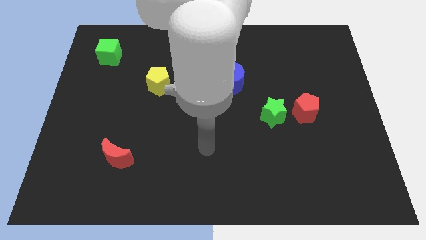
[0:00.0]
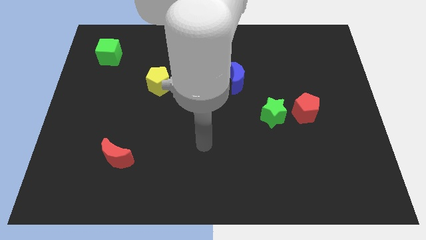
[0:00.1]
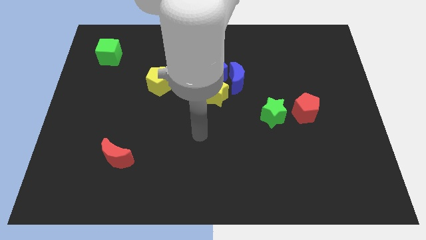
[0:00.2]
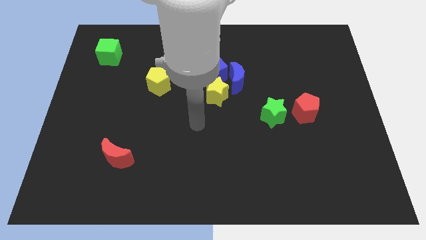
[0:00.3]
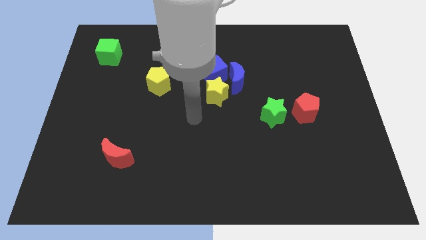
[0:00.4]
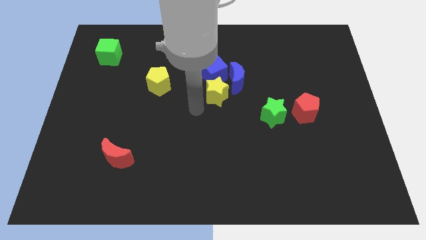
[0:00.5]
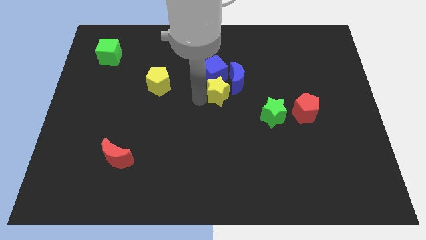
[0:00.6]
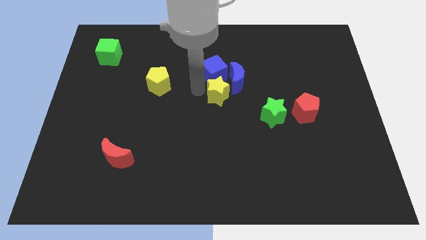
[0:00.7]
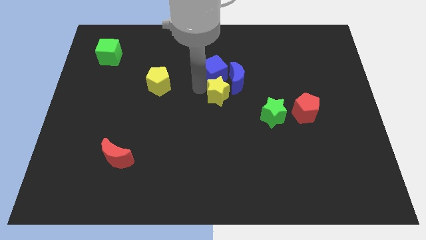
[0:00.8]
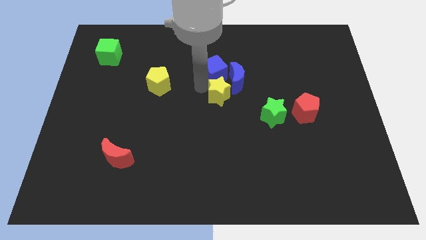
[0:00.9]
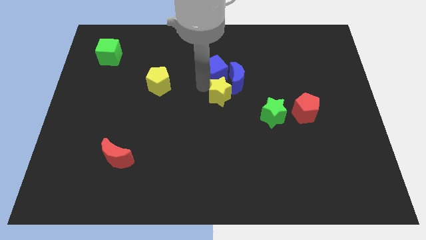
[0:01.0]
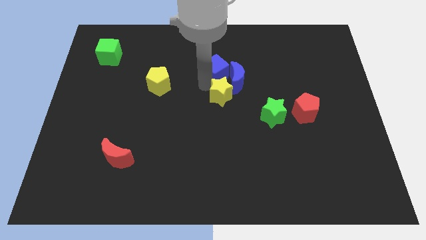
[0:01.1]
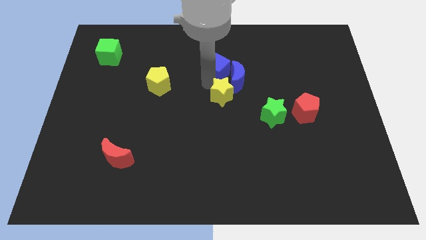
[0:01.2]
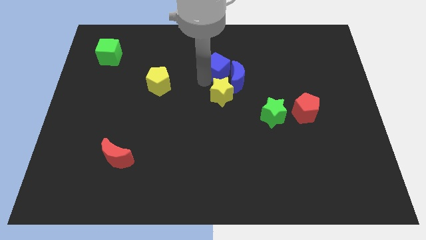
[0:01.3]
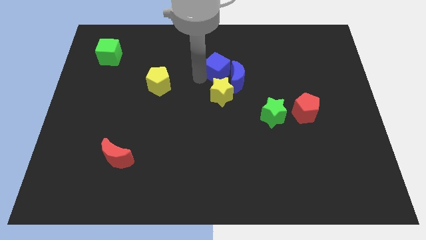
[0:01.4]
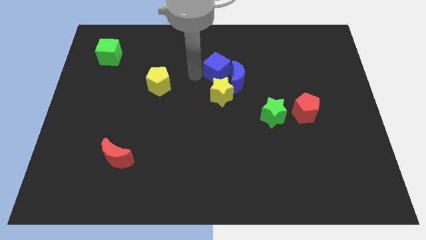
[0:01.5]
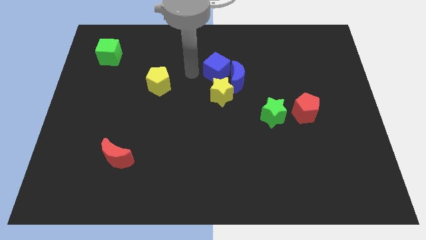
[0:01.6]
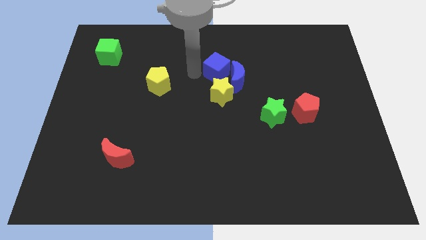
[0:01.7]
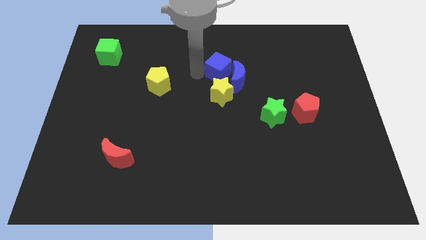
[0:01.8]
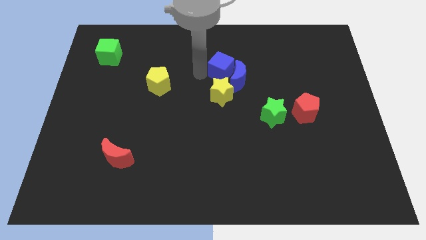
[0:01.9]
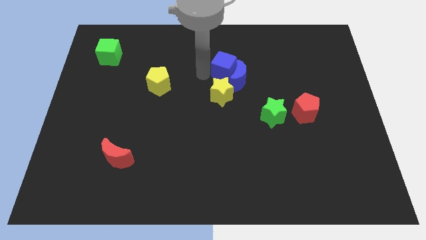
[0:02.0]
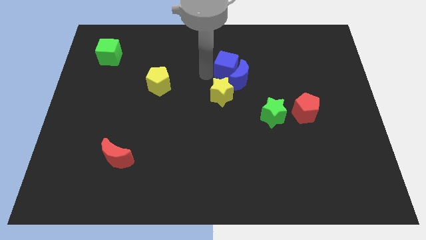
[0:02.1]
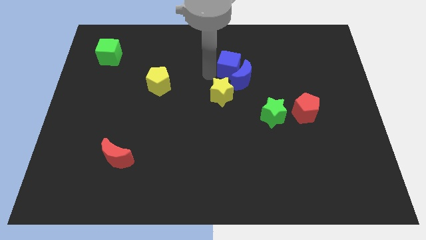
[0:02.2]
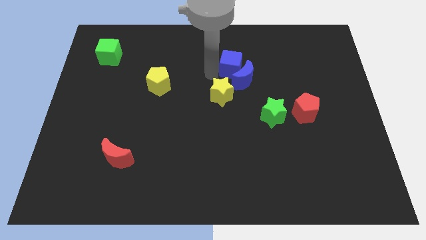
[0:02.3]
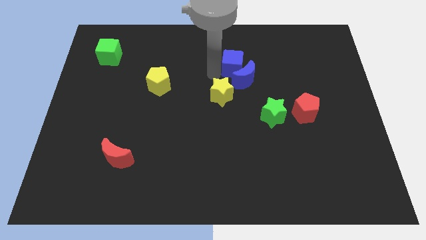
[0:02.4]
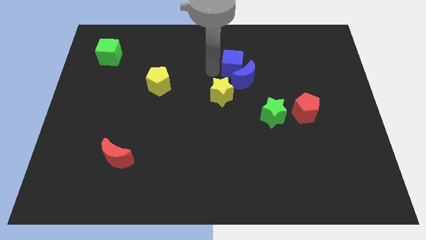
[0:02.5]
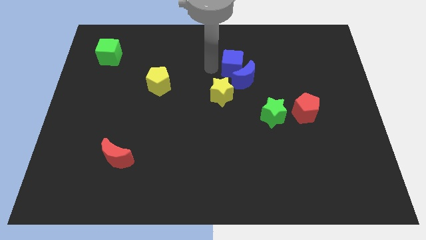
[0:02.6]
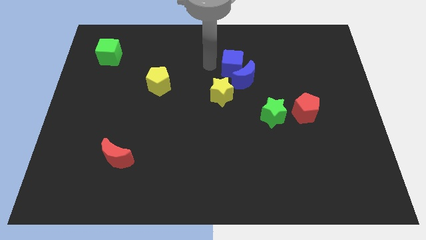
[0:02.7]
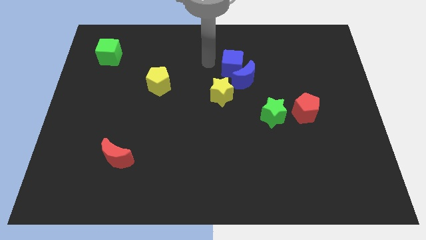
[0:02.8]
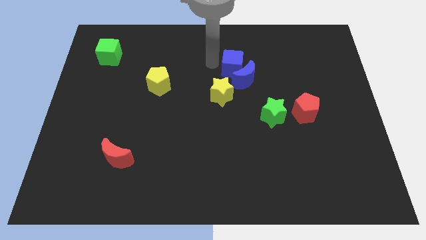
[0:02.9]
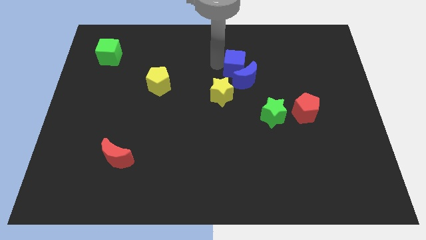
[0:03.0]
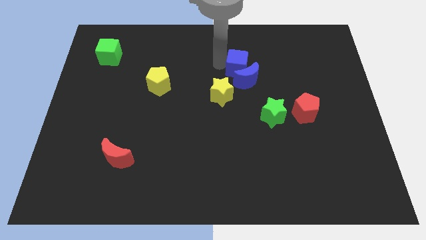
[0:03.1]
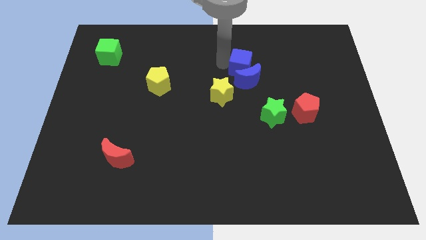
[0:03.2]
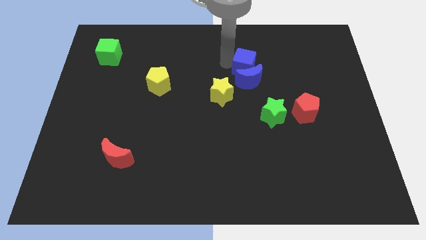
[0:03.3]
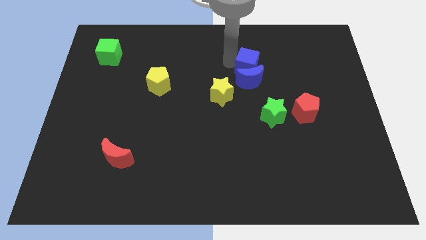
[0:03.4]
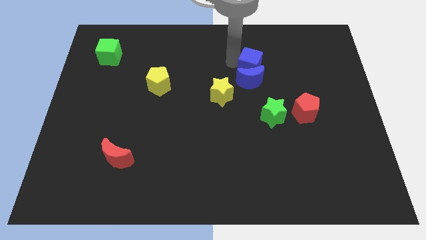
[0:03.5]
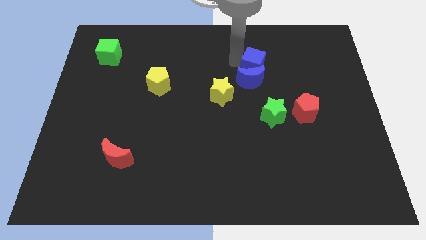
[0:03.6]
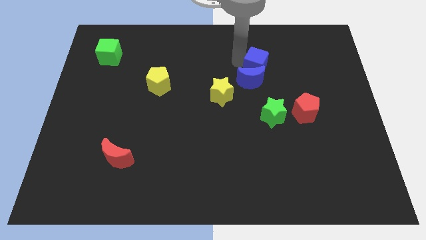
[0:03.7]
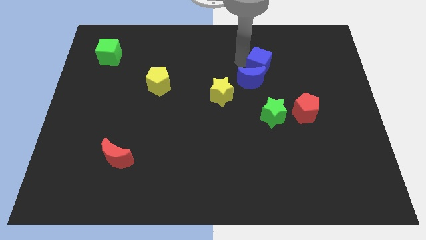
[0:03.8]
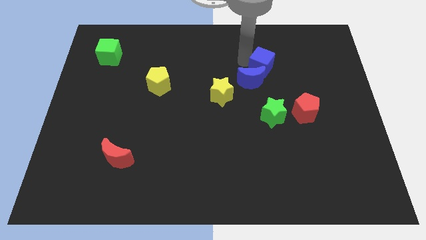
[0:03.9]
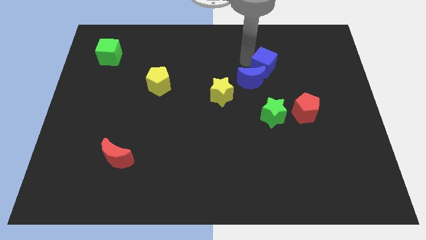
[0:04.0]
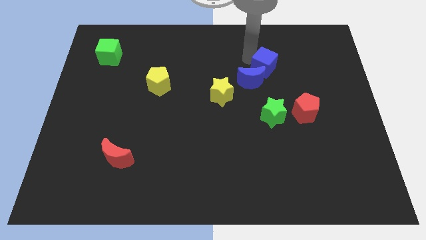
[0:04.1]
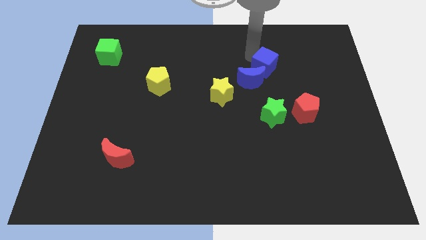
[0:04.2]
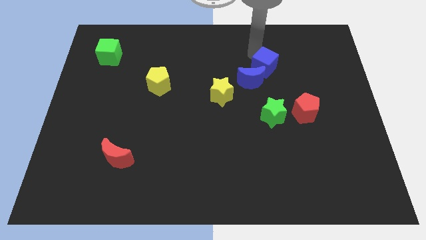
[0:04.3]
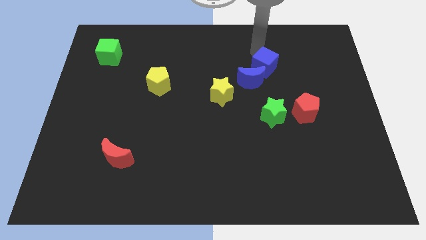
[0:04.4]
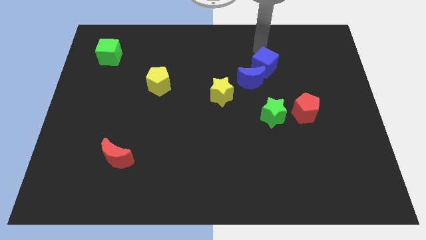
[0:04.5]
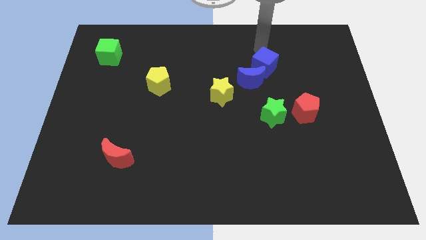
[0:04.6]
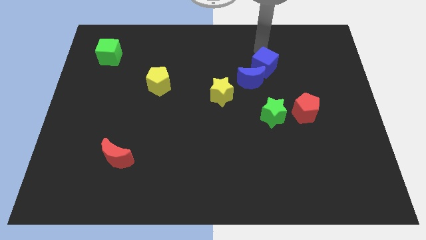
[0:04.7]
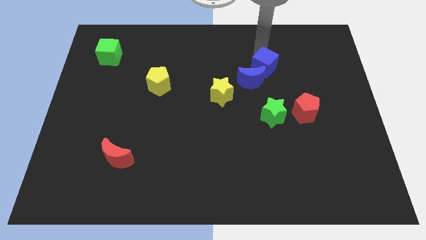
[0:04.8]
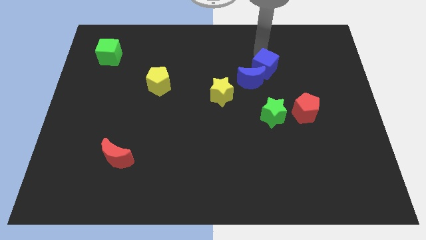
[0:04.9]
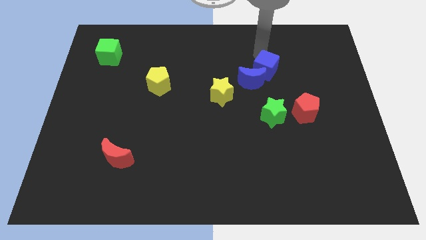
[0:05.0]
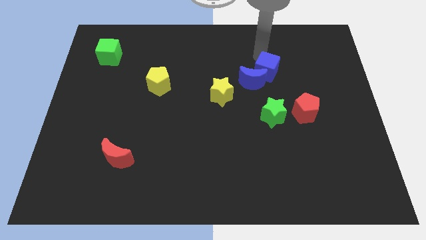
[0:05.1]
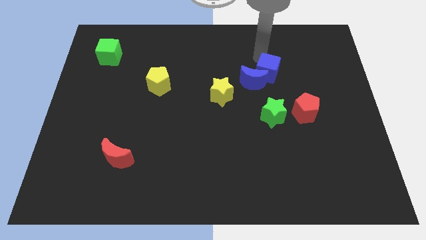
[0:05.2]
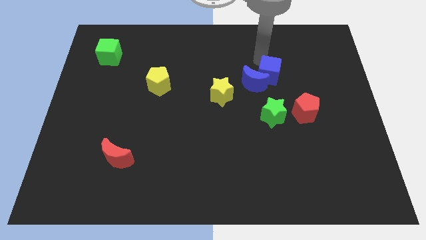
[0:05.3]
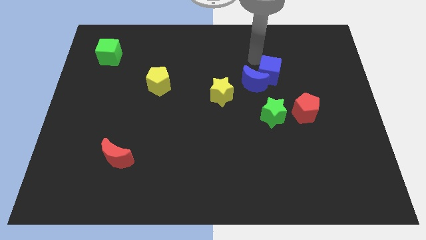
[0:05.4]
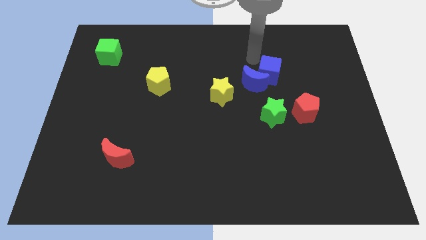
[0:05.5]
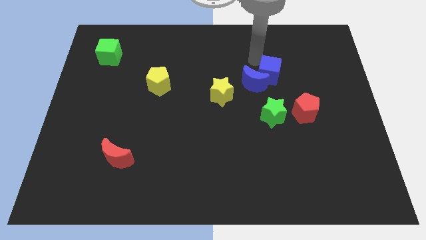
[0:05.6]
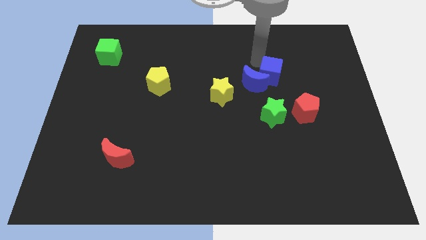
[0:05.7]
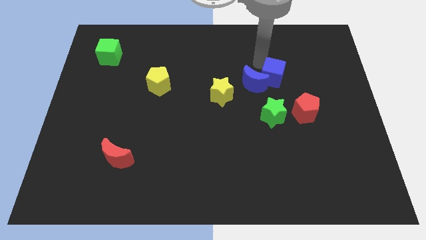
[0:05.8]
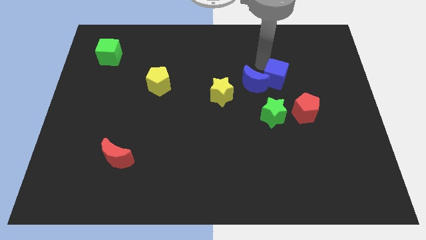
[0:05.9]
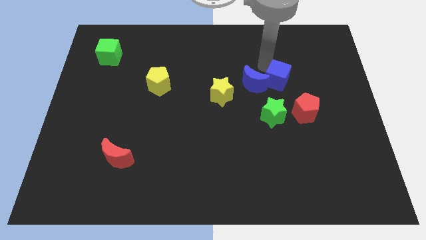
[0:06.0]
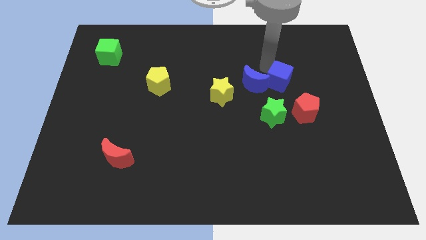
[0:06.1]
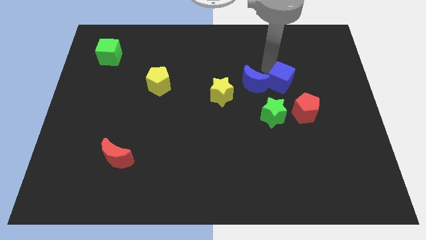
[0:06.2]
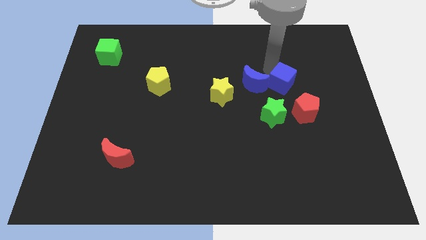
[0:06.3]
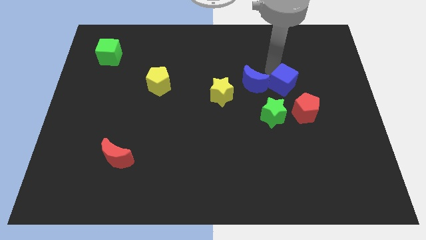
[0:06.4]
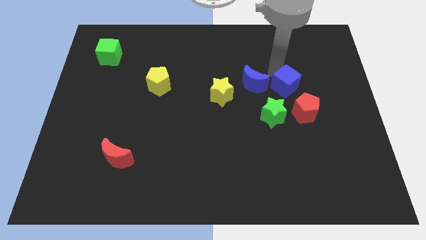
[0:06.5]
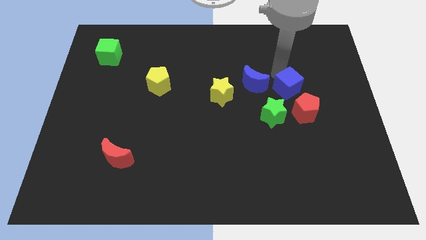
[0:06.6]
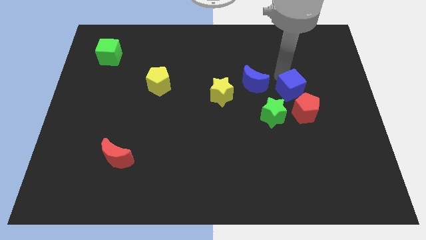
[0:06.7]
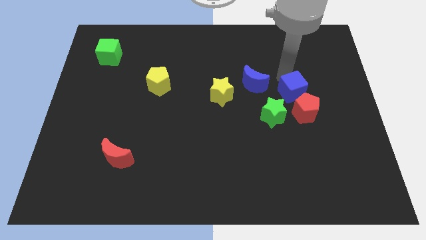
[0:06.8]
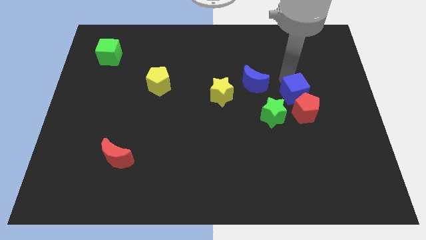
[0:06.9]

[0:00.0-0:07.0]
put the blue cube next to the red pentagon
